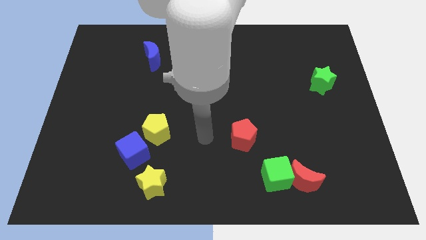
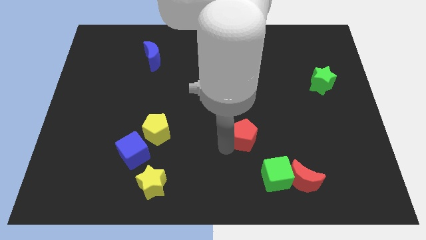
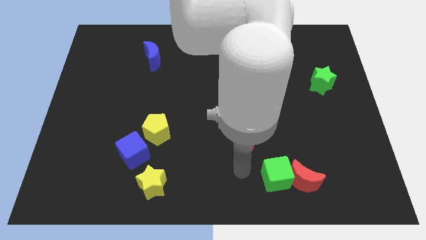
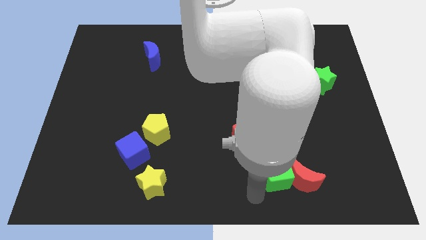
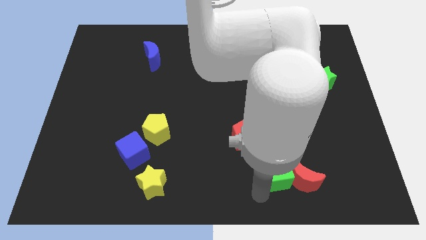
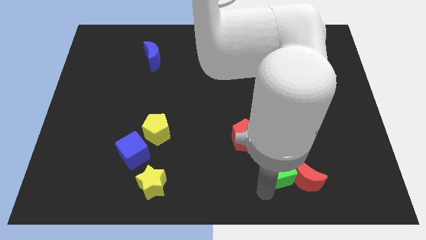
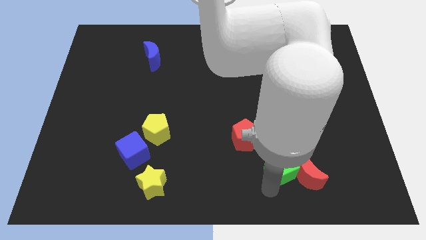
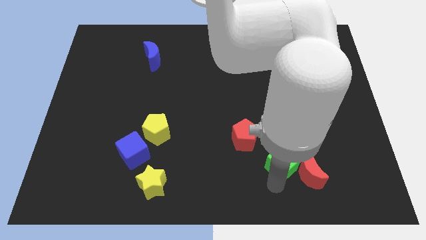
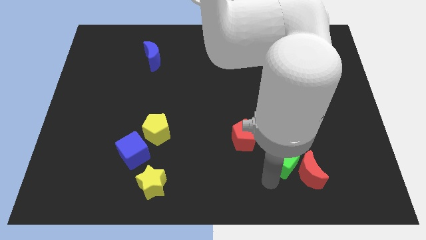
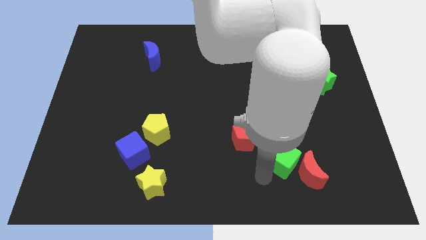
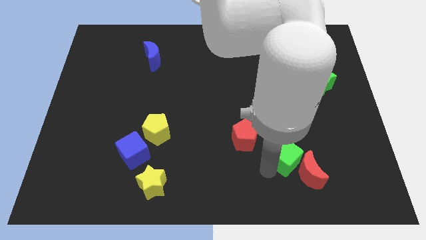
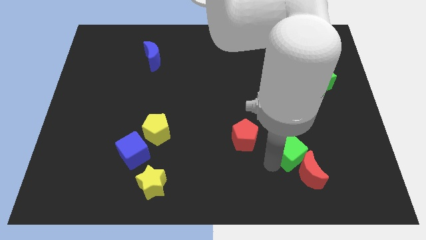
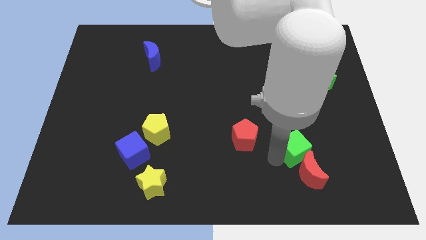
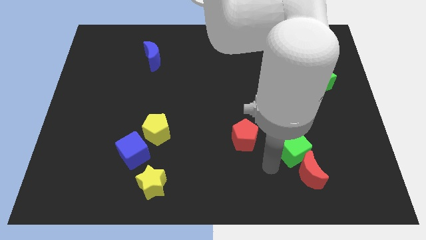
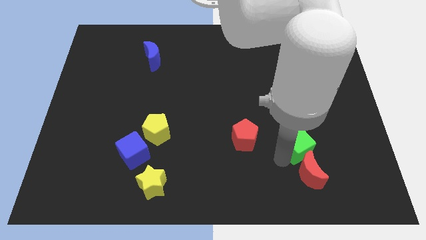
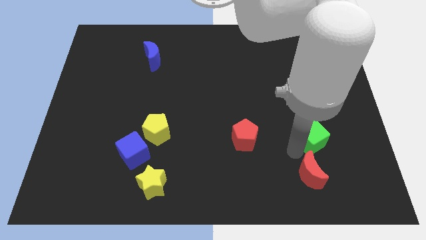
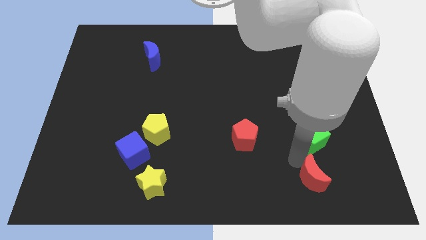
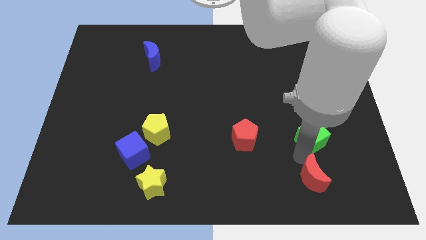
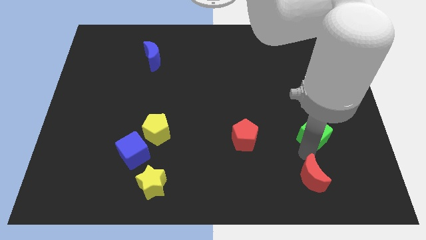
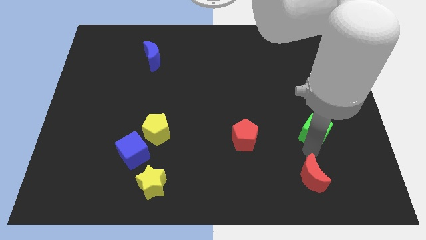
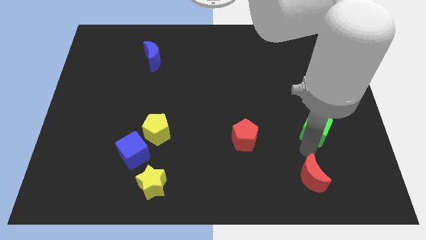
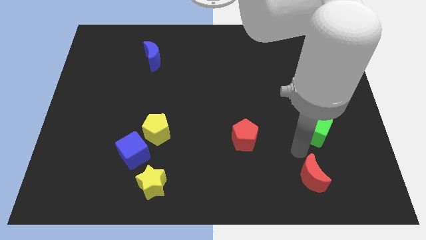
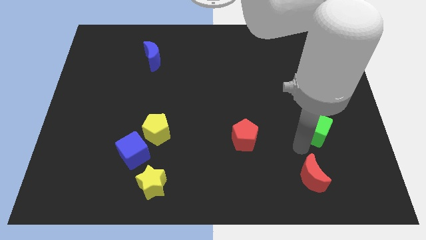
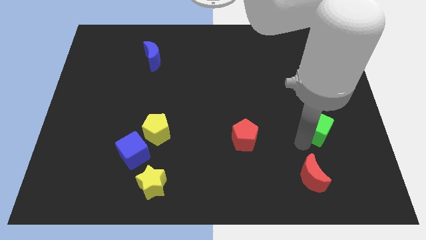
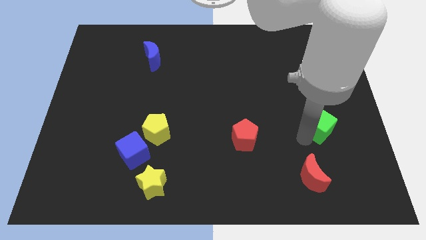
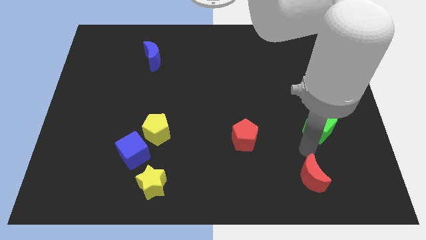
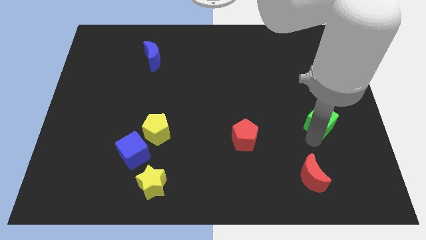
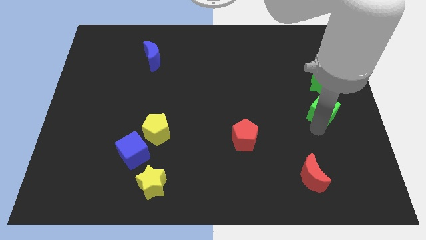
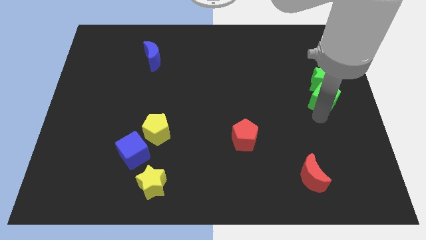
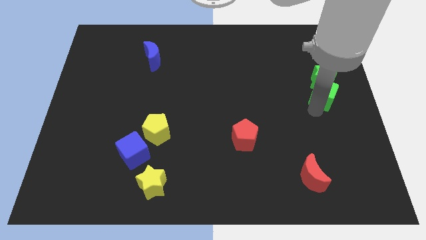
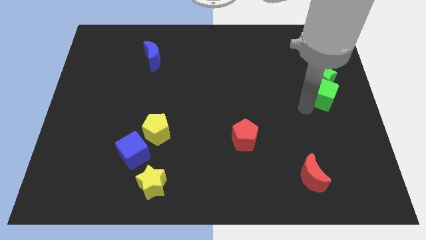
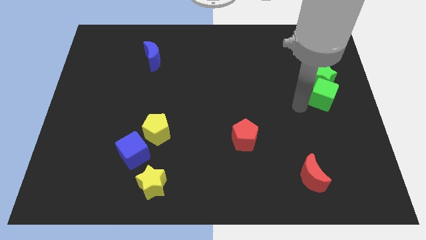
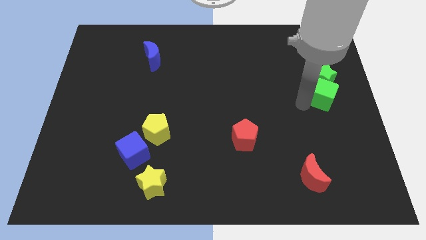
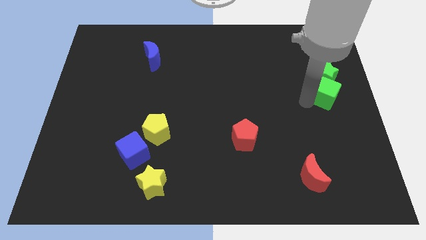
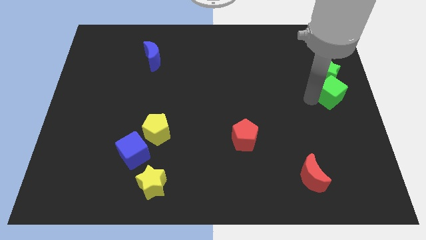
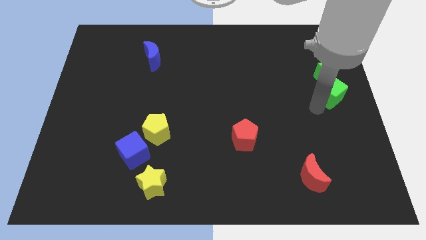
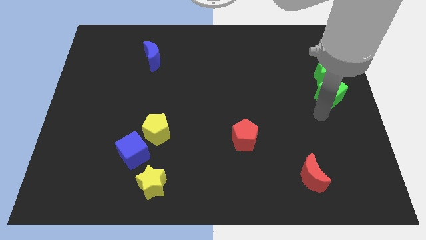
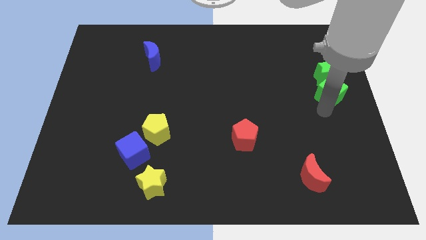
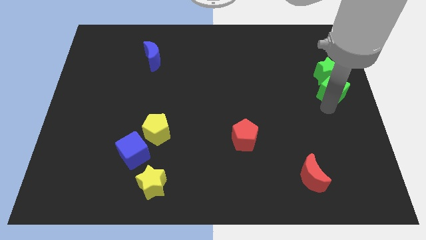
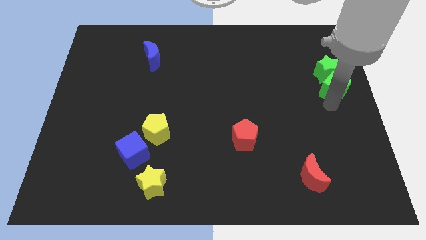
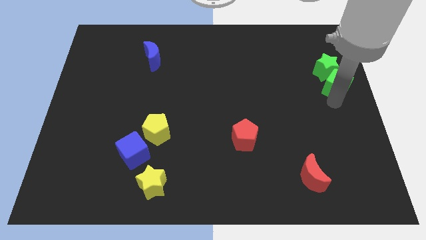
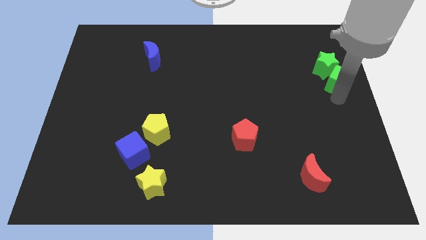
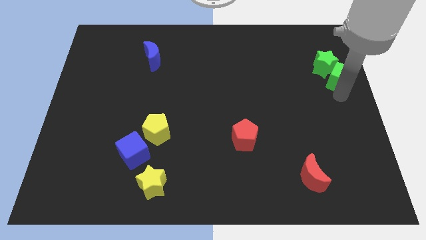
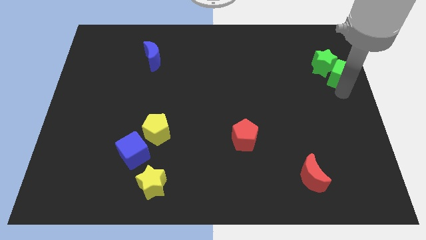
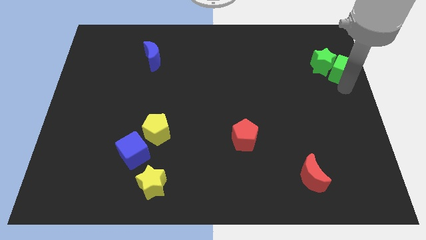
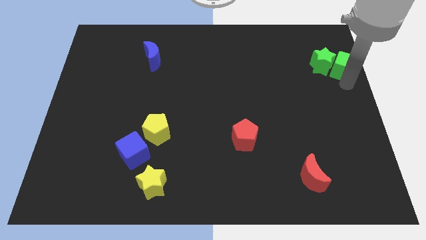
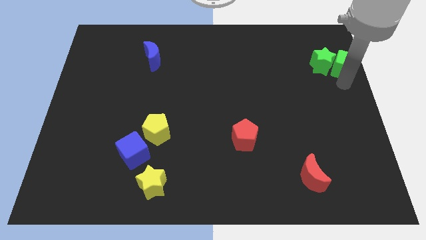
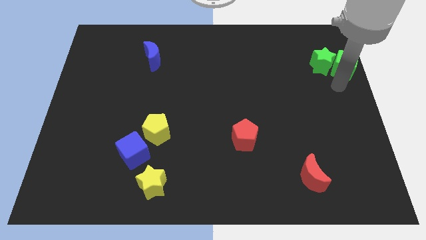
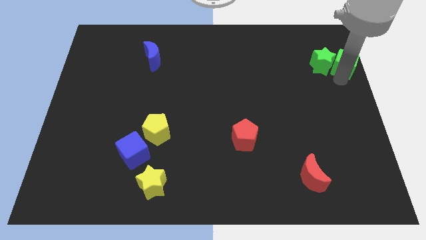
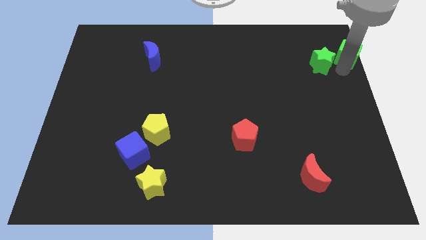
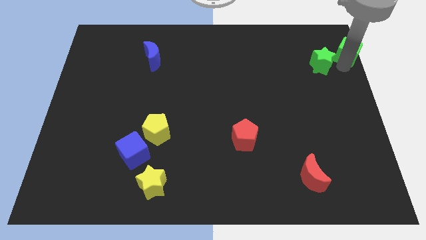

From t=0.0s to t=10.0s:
put the green cube to the upper right corner

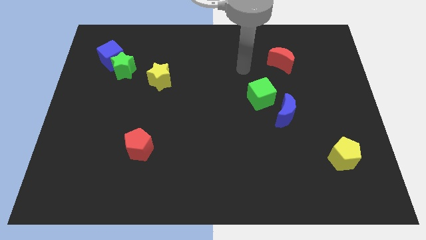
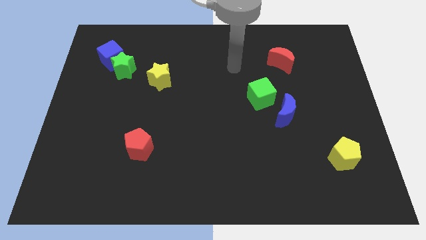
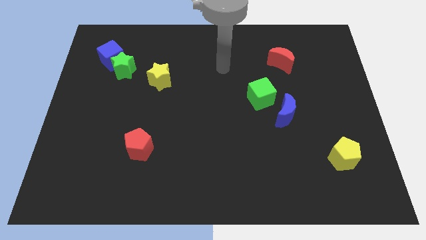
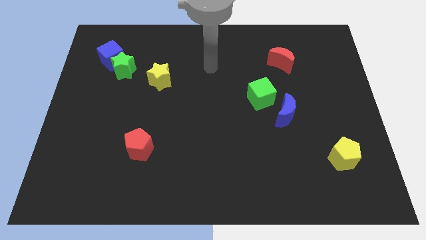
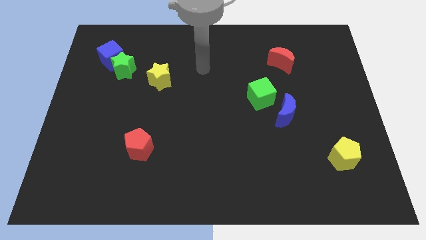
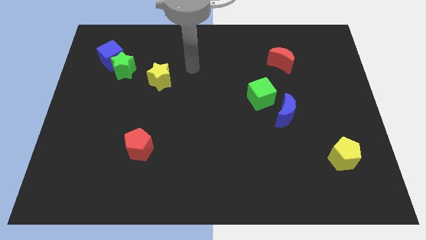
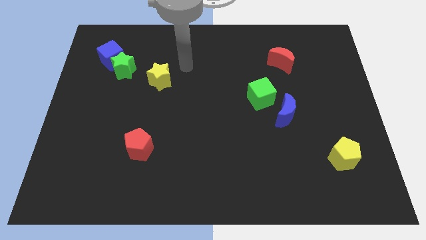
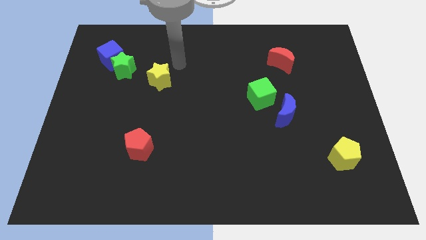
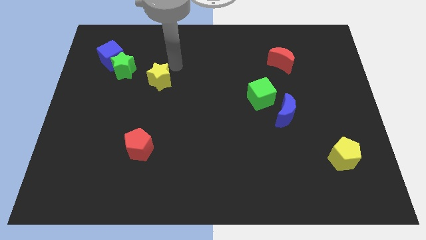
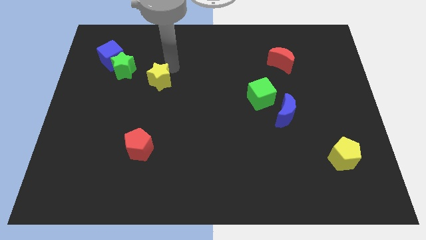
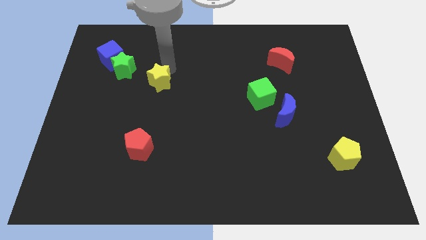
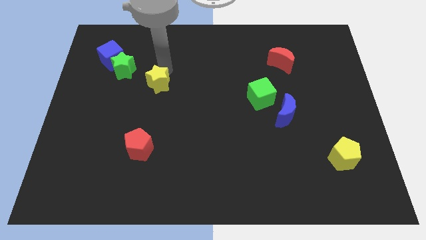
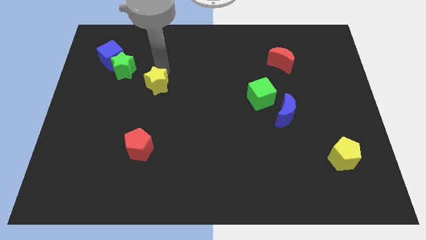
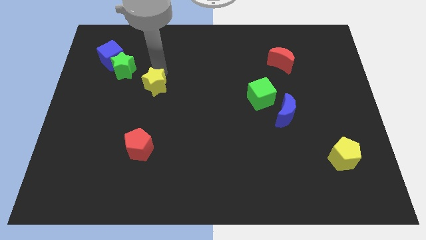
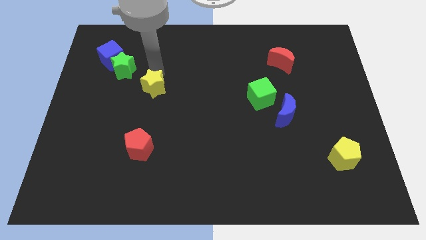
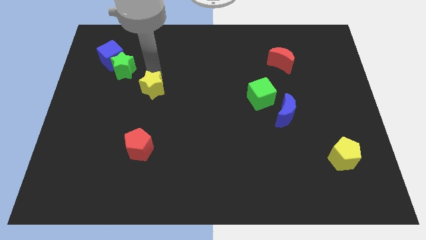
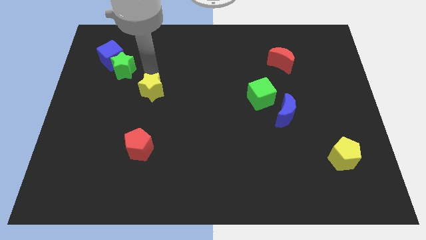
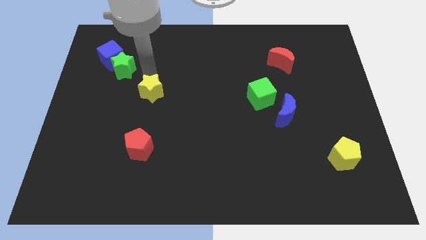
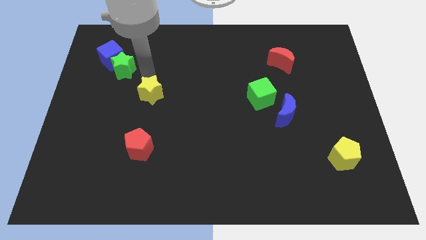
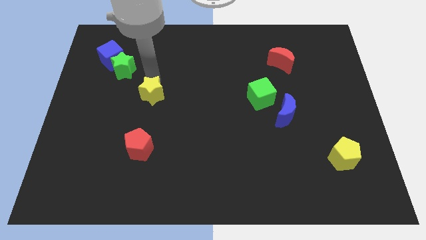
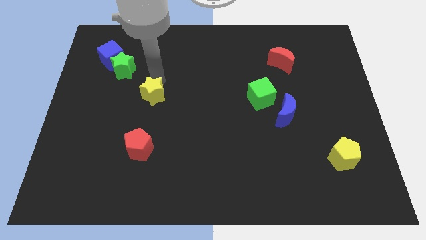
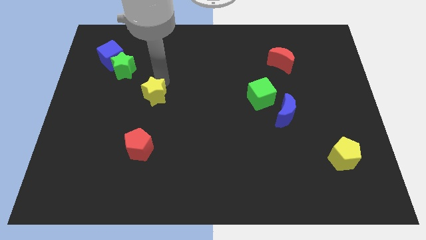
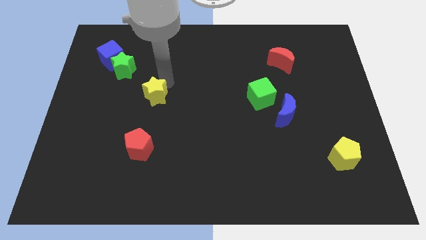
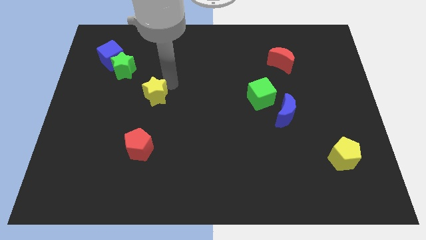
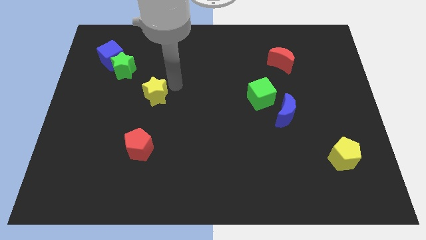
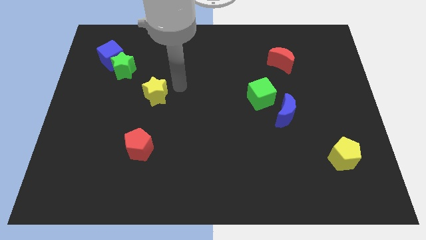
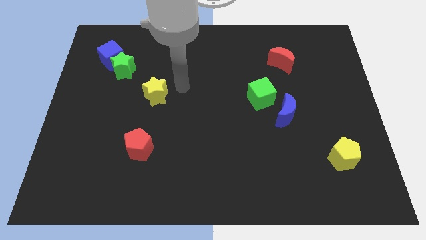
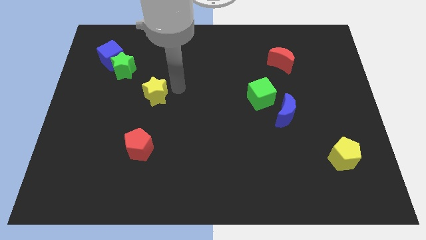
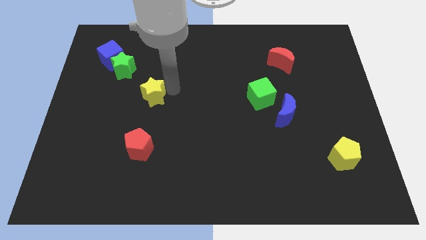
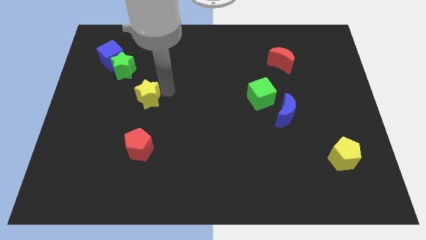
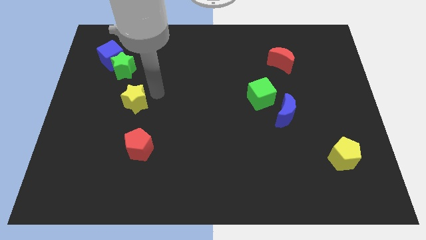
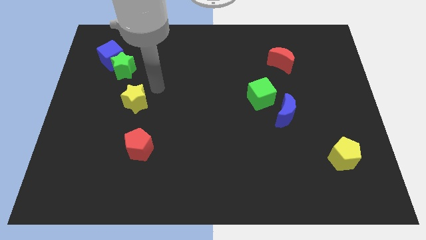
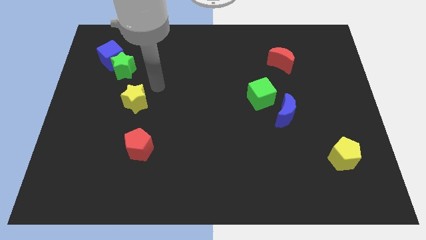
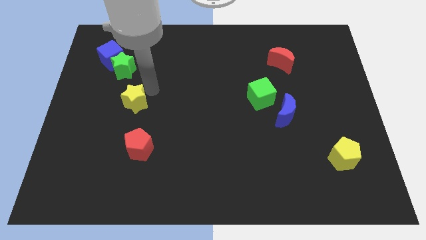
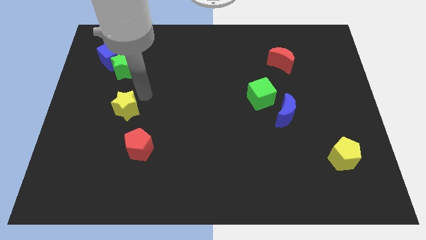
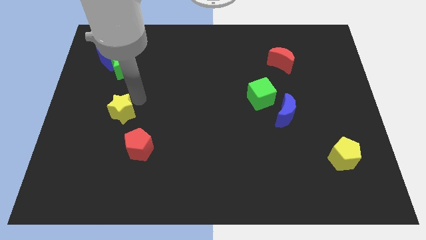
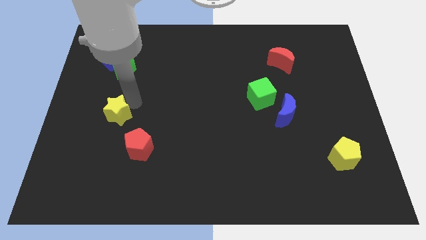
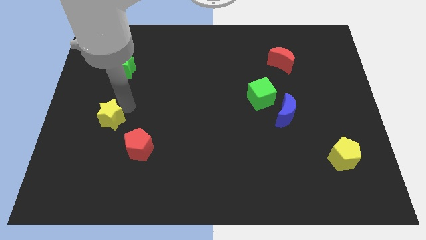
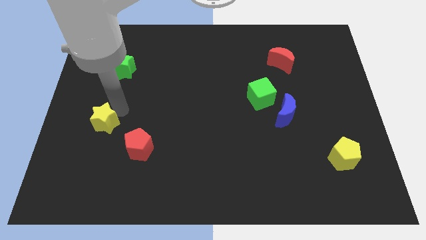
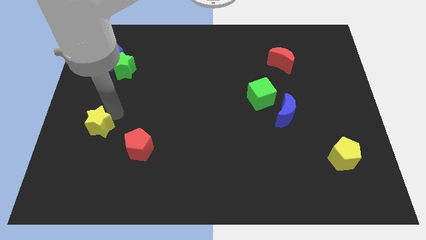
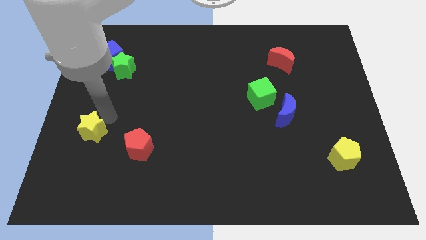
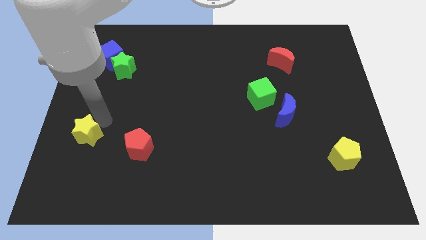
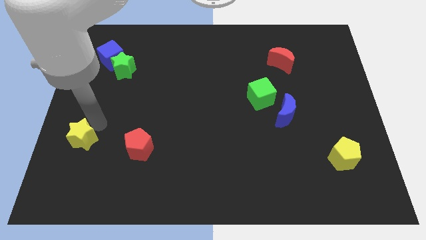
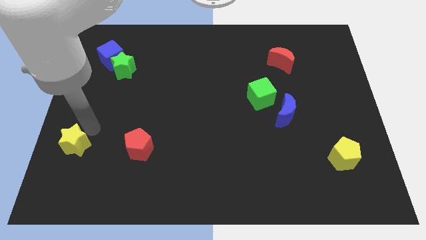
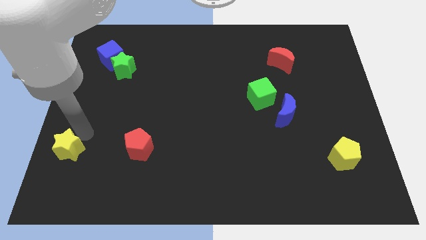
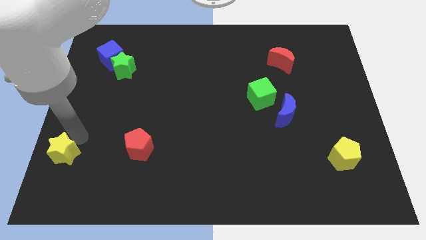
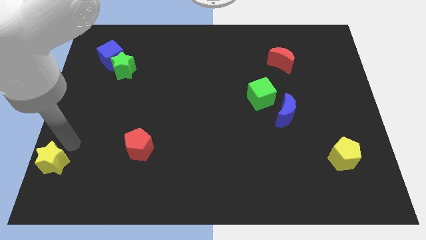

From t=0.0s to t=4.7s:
move the yellow star to the bottom left
